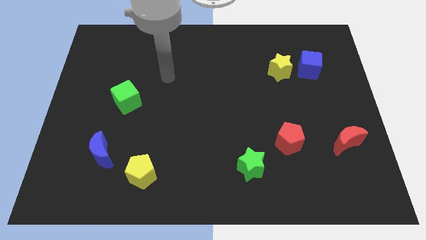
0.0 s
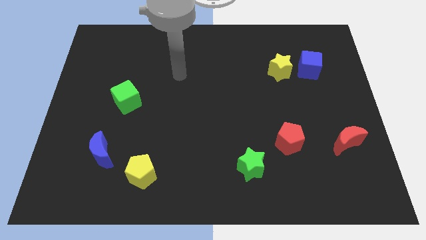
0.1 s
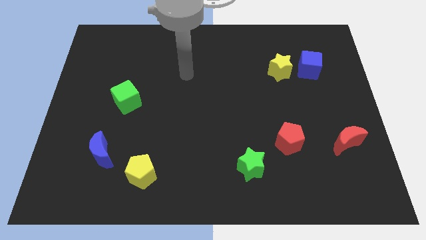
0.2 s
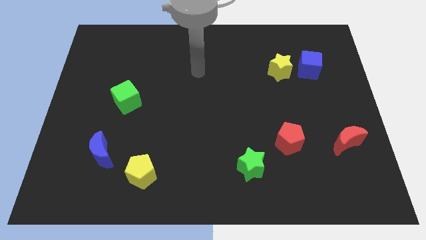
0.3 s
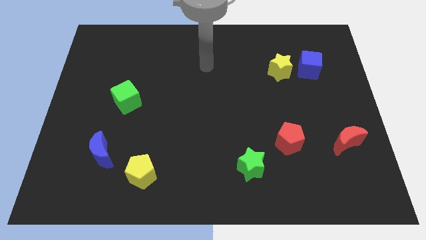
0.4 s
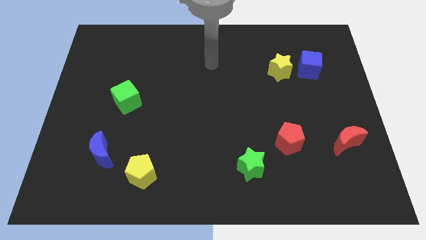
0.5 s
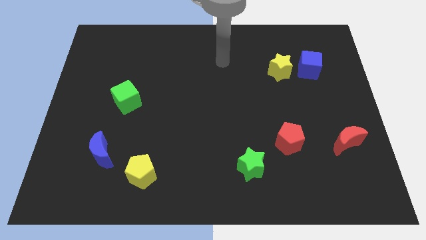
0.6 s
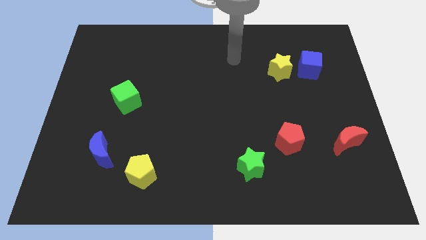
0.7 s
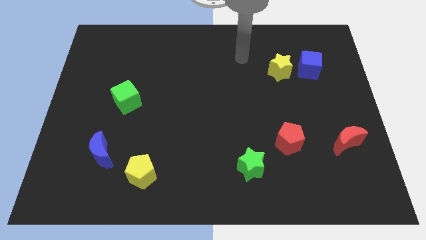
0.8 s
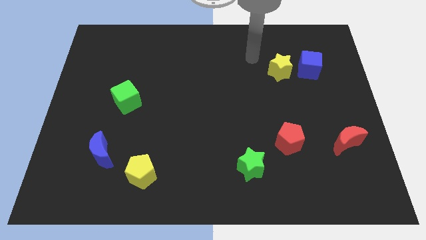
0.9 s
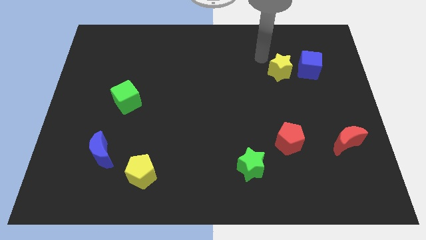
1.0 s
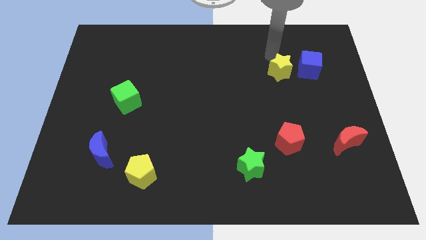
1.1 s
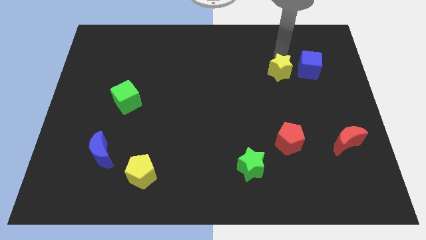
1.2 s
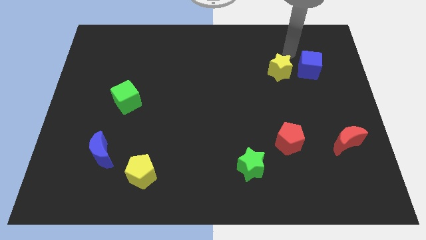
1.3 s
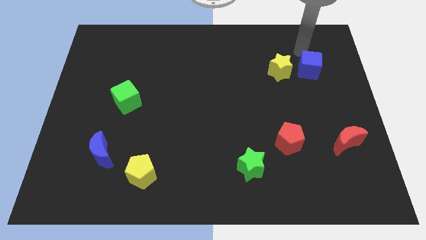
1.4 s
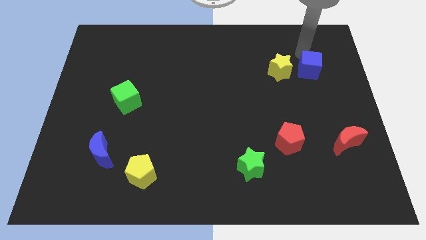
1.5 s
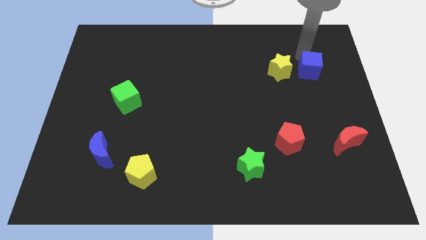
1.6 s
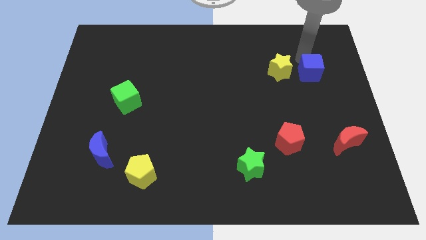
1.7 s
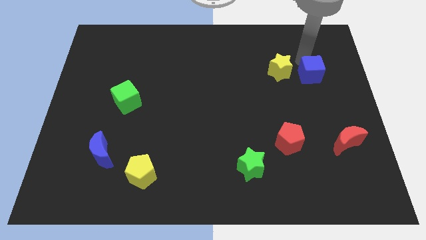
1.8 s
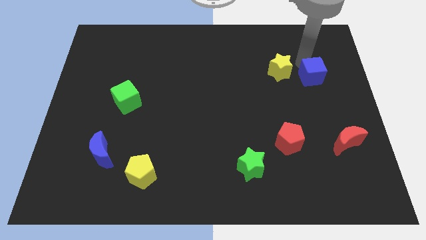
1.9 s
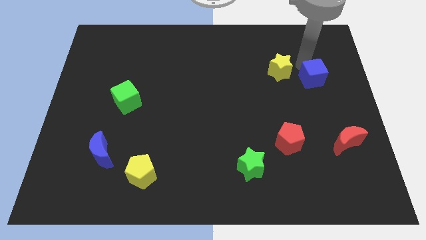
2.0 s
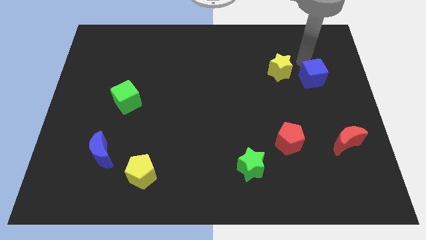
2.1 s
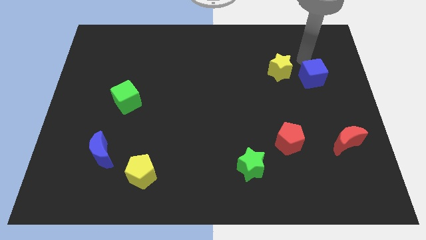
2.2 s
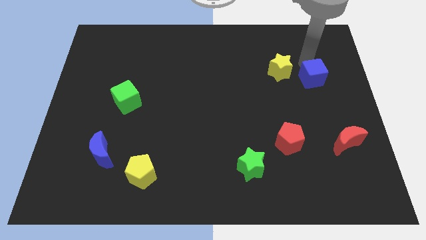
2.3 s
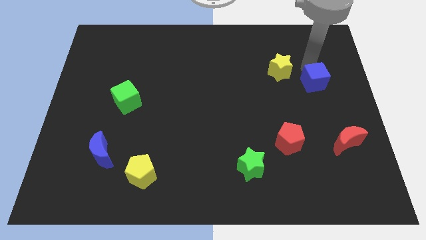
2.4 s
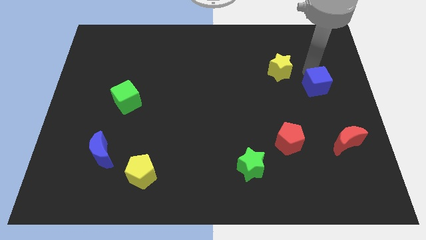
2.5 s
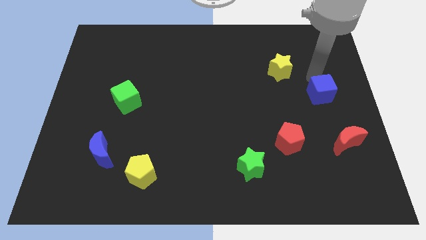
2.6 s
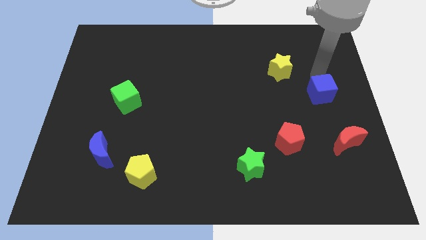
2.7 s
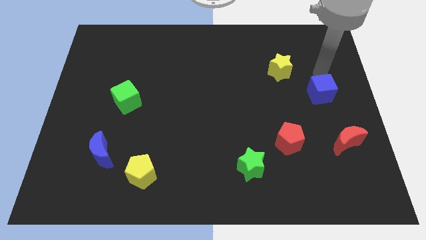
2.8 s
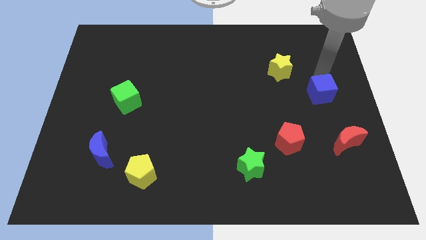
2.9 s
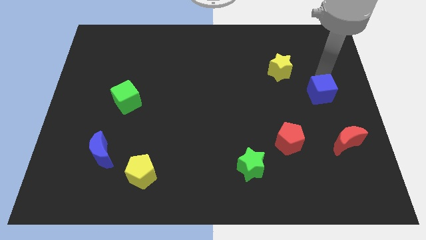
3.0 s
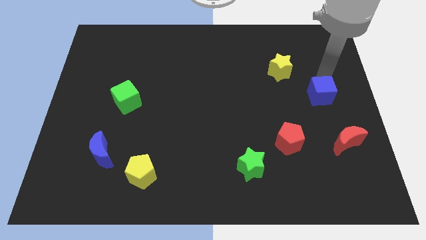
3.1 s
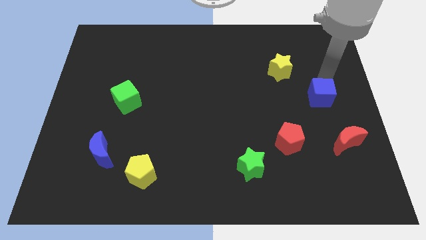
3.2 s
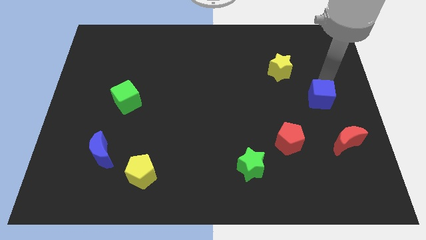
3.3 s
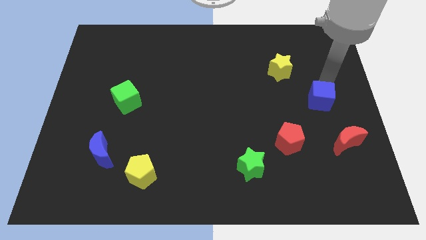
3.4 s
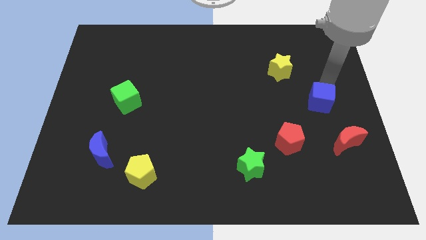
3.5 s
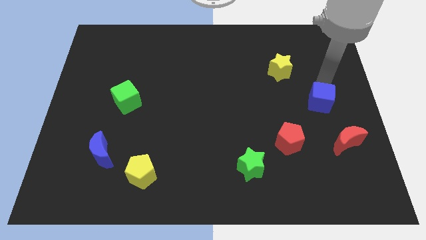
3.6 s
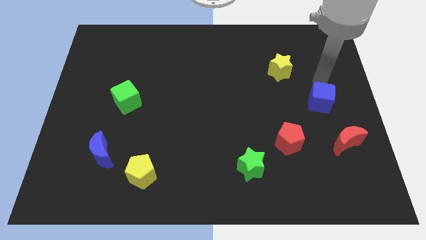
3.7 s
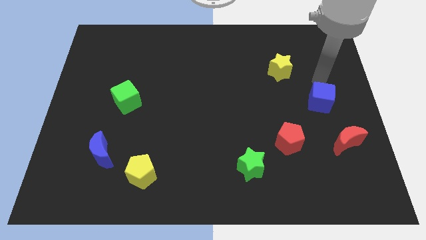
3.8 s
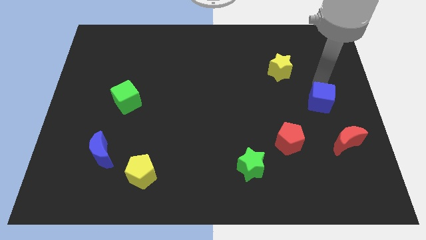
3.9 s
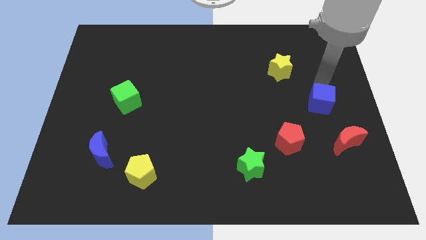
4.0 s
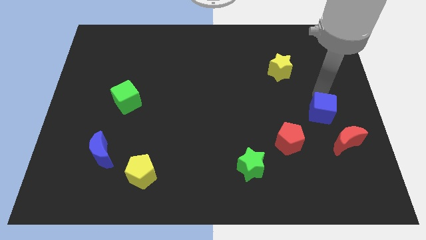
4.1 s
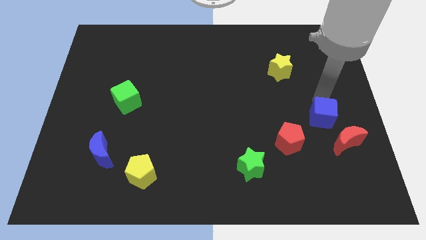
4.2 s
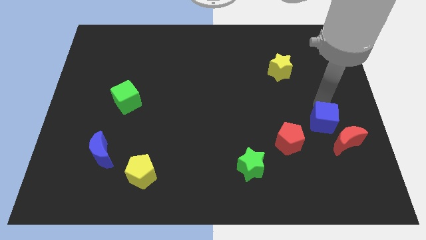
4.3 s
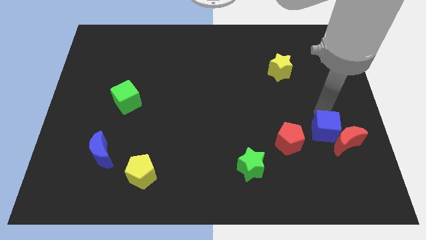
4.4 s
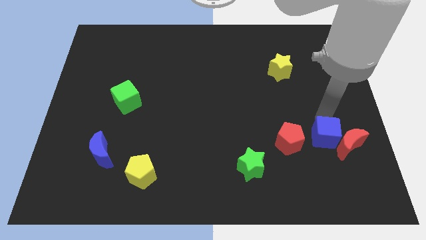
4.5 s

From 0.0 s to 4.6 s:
slide the blue cube downwards

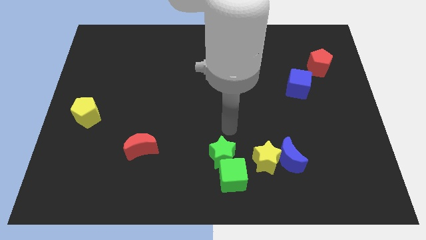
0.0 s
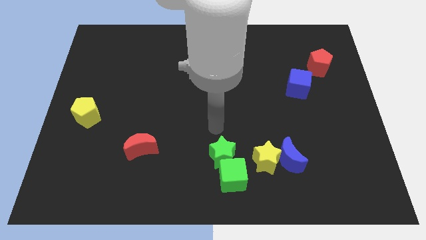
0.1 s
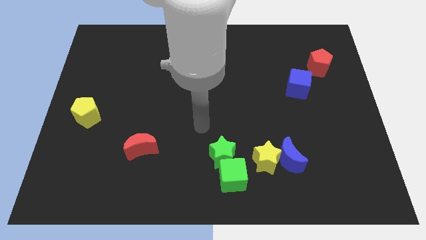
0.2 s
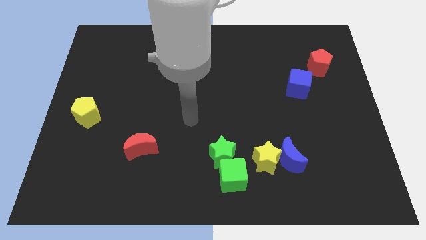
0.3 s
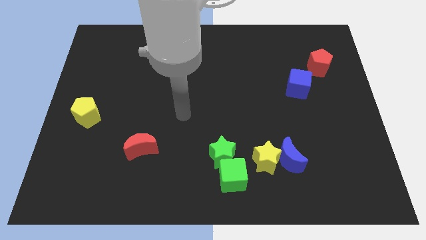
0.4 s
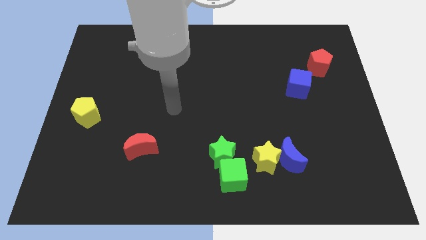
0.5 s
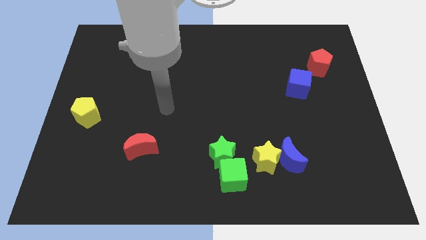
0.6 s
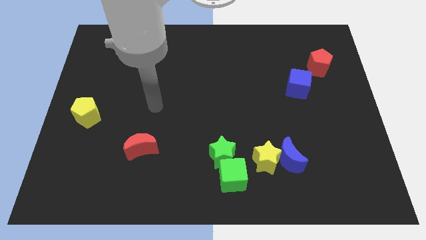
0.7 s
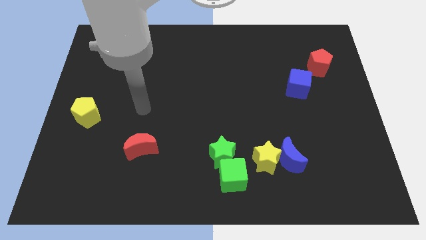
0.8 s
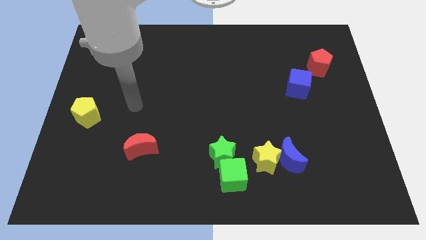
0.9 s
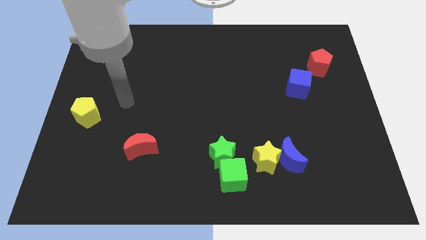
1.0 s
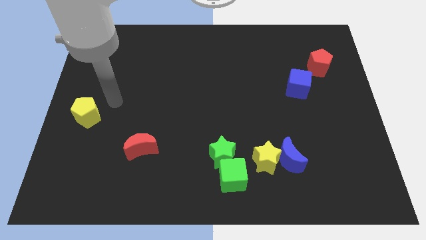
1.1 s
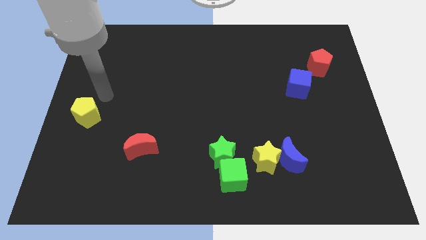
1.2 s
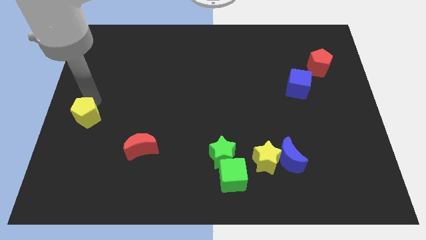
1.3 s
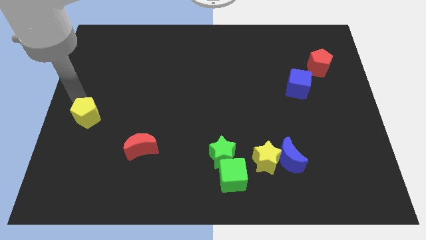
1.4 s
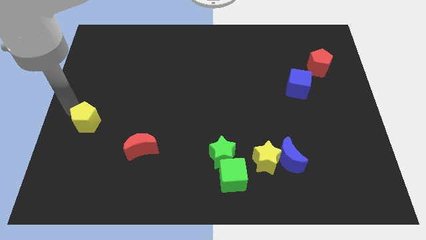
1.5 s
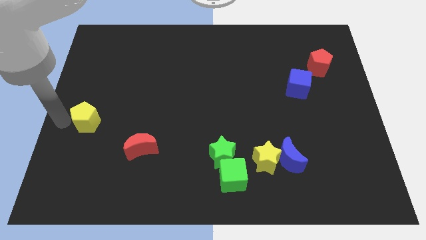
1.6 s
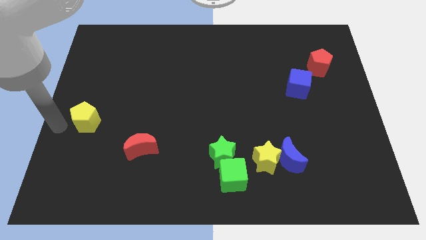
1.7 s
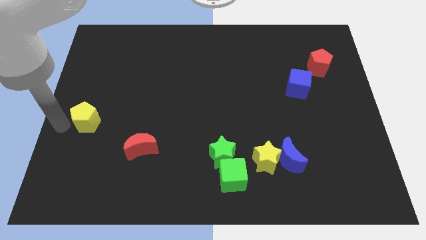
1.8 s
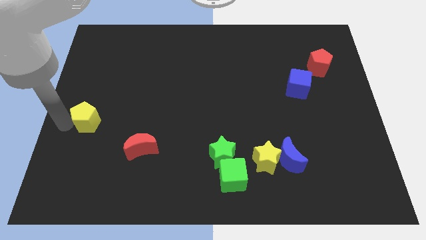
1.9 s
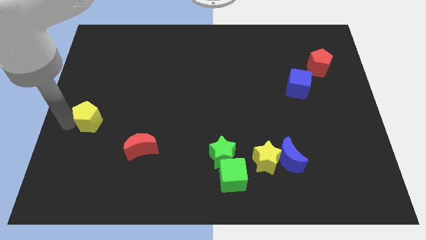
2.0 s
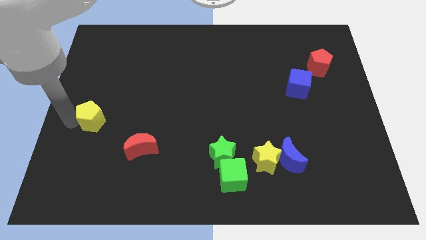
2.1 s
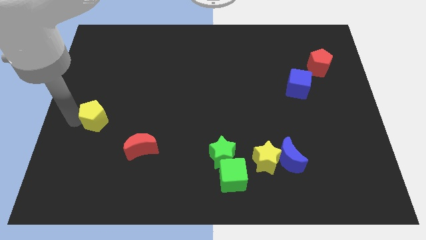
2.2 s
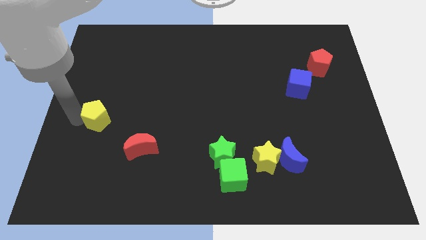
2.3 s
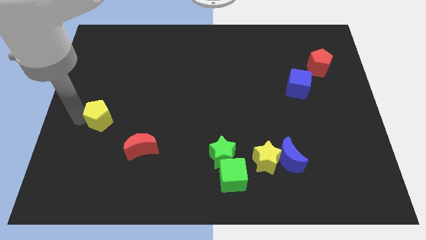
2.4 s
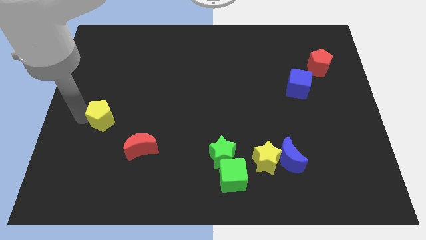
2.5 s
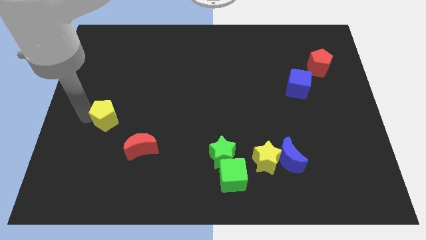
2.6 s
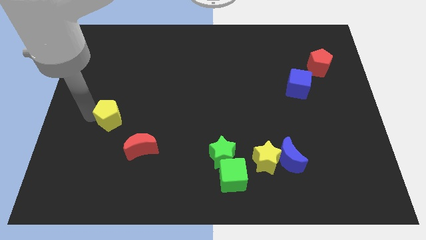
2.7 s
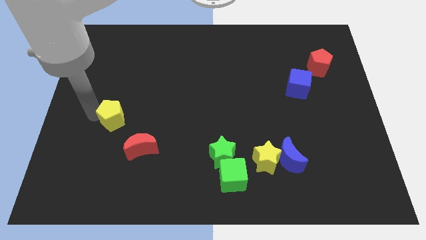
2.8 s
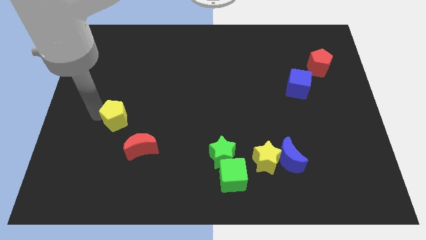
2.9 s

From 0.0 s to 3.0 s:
slightly move the yellow pentagon to the right
